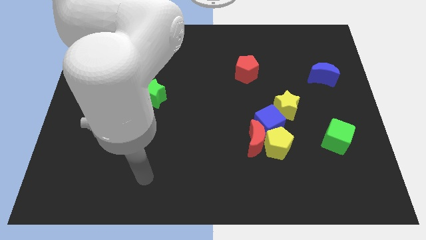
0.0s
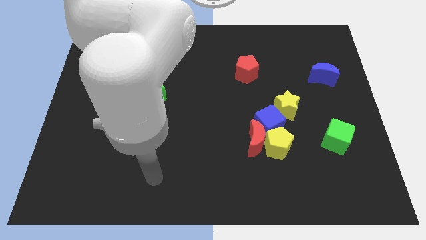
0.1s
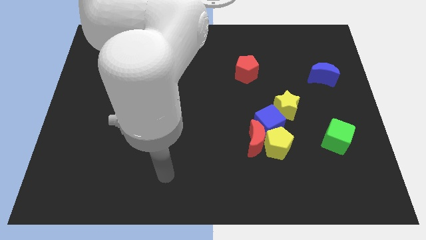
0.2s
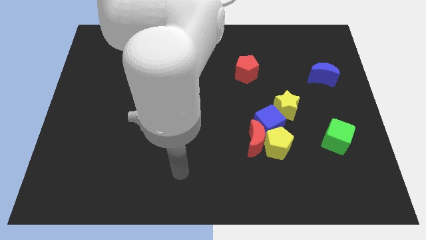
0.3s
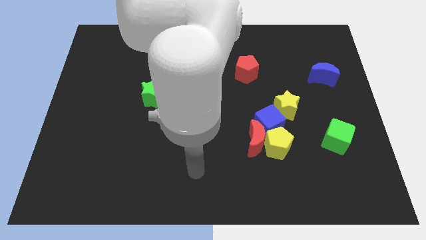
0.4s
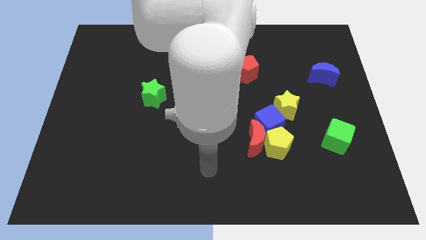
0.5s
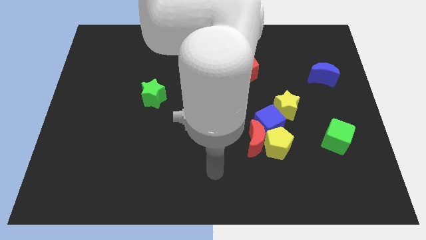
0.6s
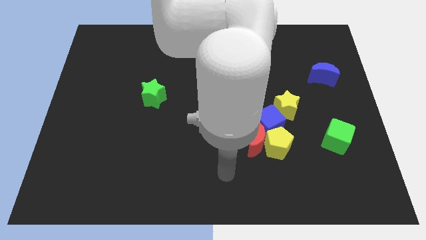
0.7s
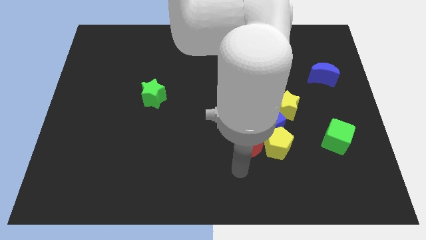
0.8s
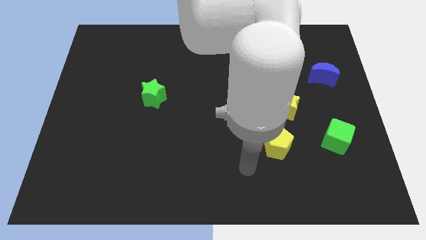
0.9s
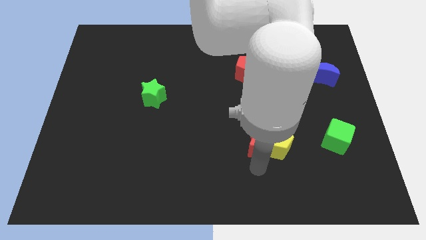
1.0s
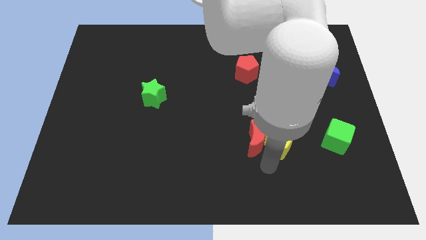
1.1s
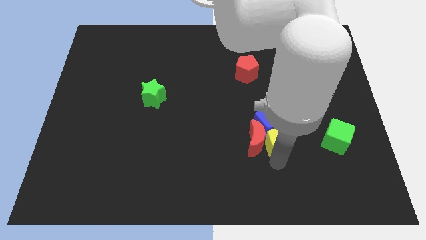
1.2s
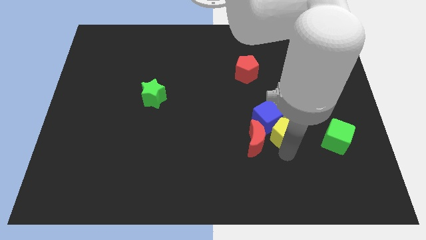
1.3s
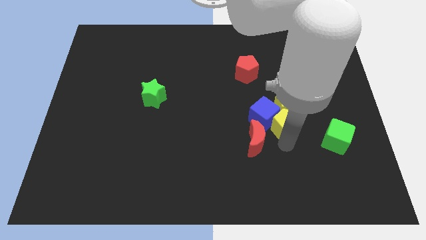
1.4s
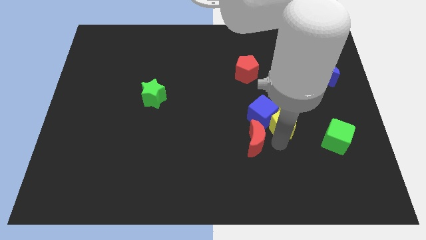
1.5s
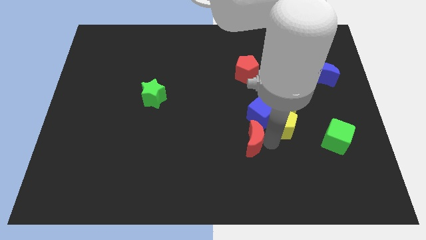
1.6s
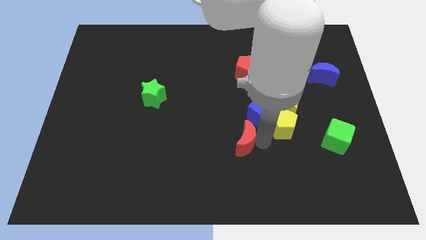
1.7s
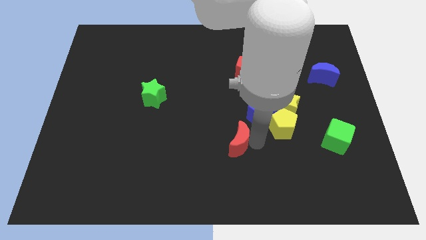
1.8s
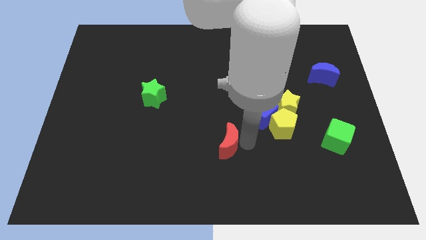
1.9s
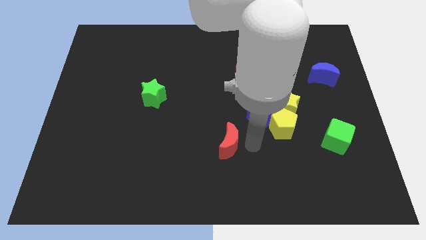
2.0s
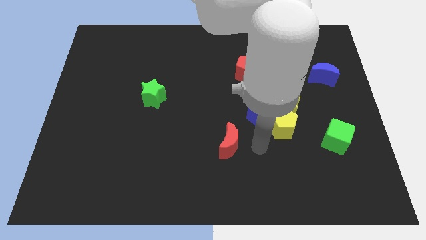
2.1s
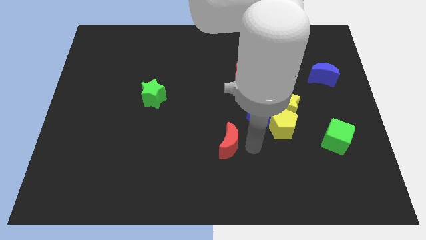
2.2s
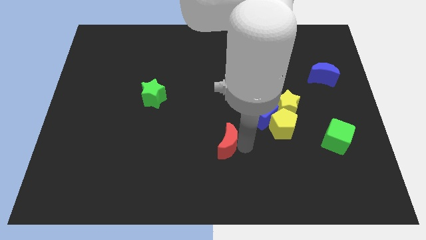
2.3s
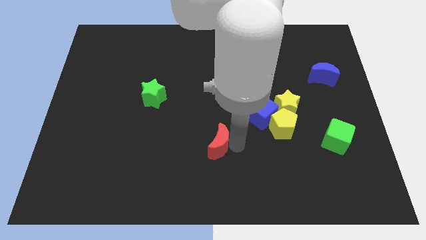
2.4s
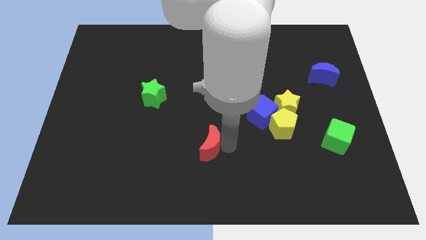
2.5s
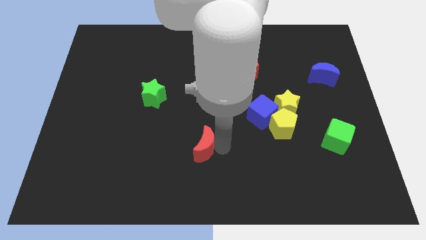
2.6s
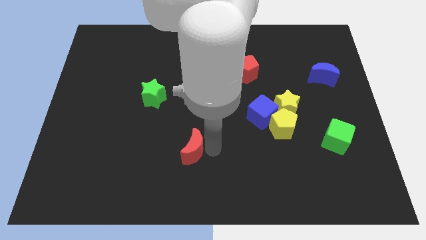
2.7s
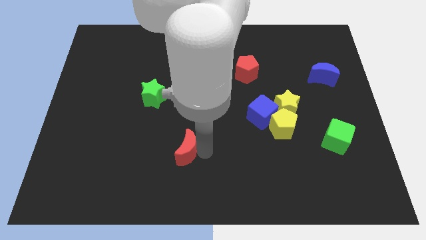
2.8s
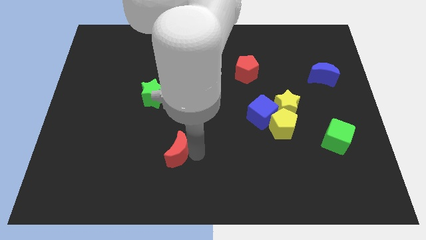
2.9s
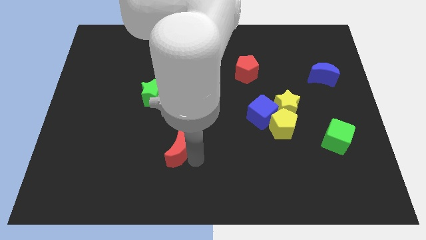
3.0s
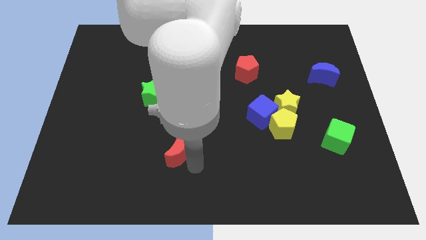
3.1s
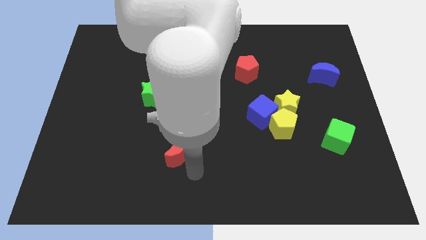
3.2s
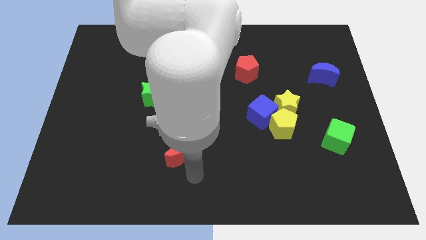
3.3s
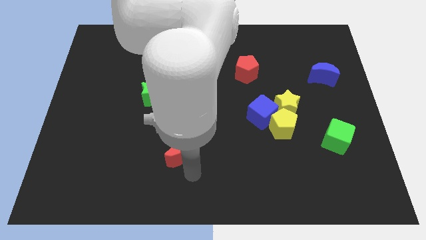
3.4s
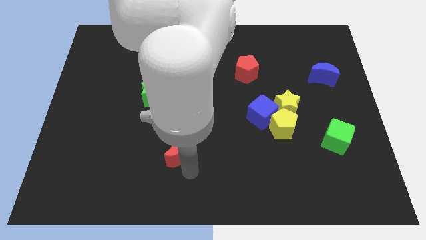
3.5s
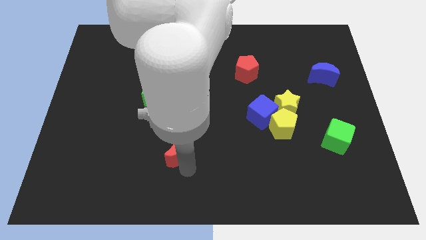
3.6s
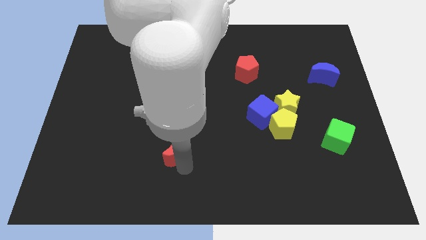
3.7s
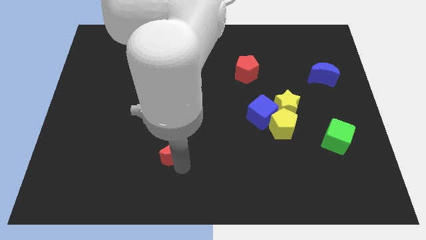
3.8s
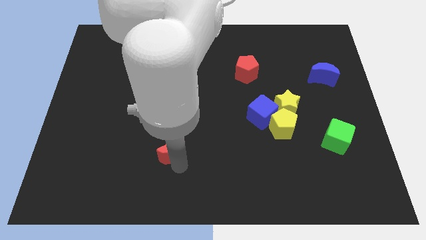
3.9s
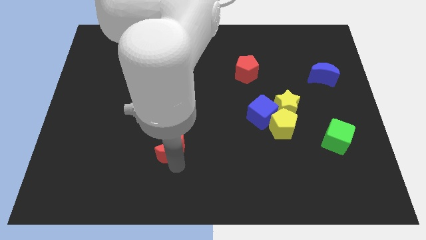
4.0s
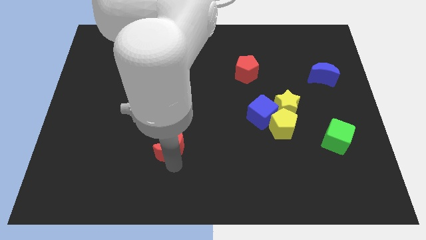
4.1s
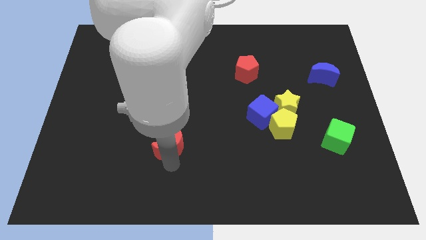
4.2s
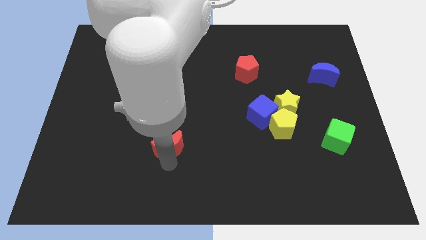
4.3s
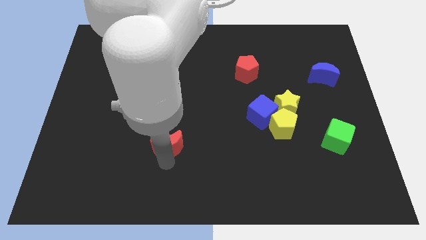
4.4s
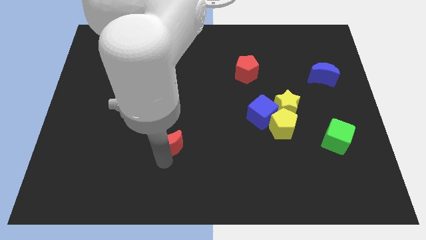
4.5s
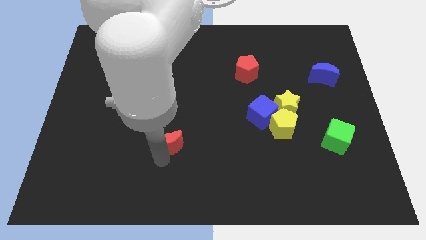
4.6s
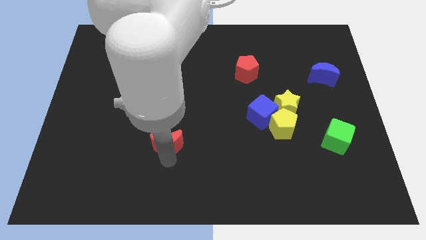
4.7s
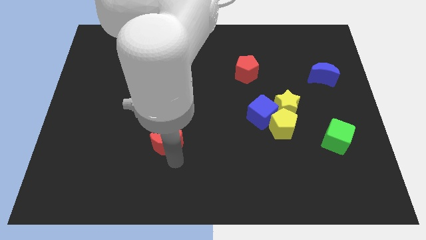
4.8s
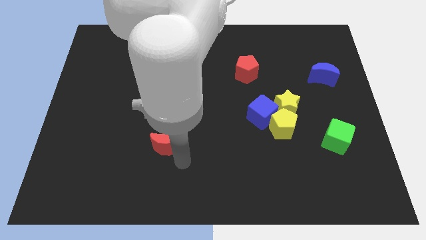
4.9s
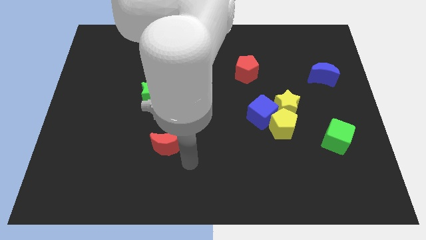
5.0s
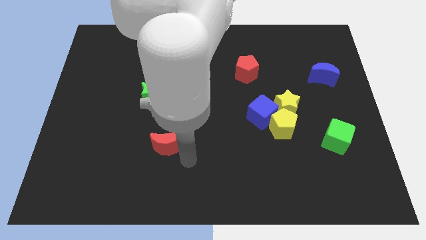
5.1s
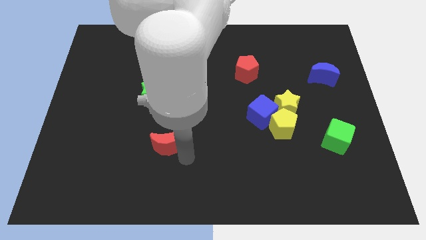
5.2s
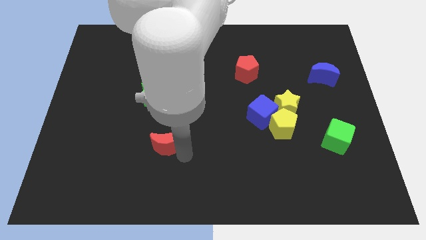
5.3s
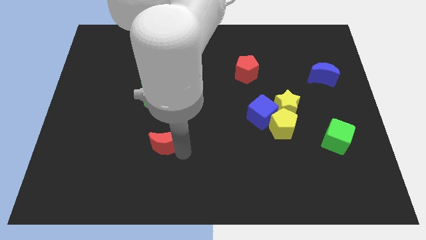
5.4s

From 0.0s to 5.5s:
slide the red moon to the bottom side of the green star
